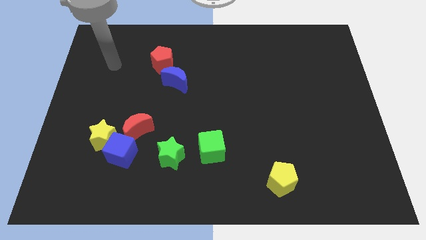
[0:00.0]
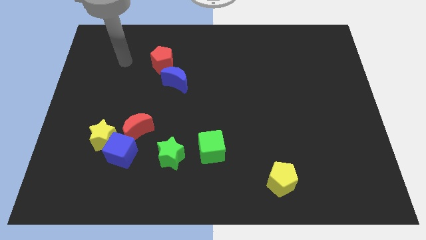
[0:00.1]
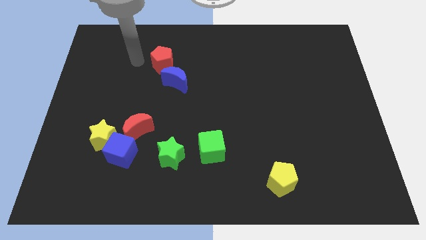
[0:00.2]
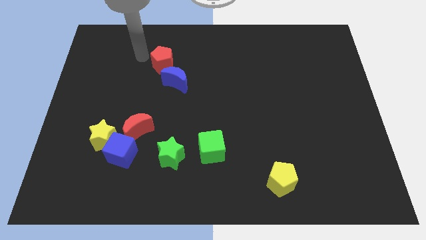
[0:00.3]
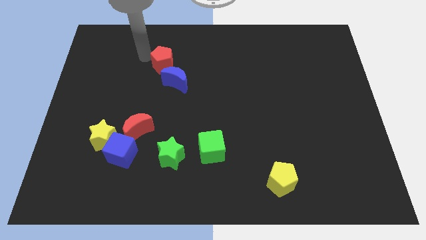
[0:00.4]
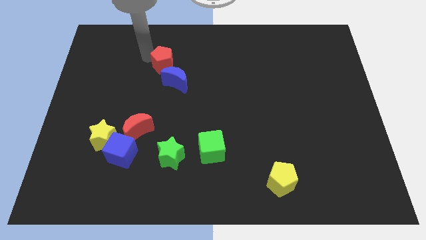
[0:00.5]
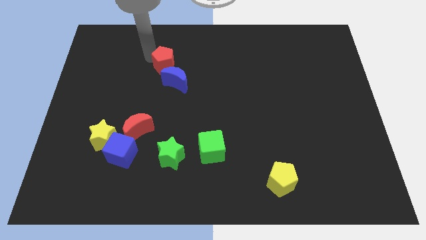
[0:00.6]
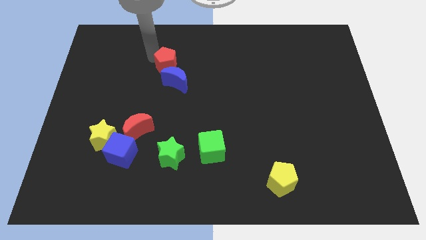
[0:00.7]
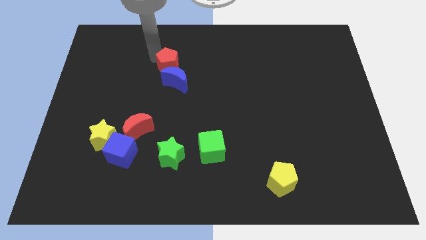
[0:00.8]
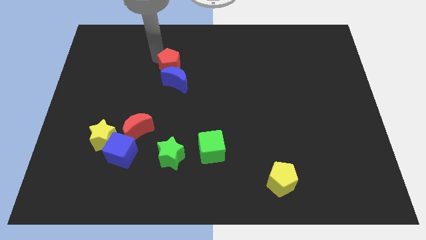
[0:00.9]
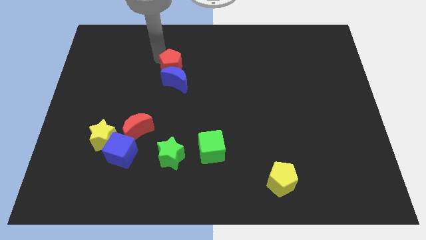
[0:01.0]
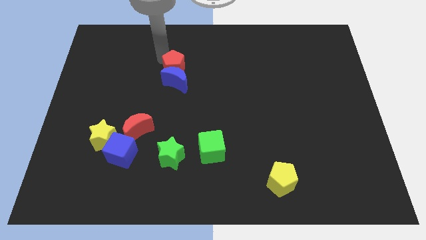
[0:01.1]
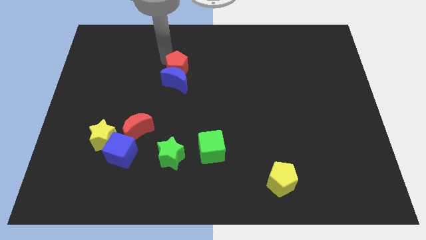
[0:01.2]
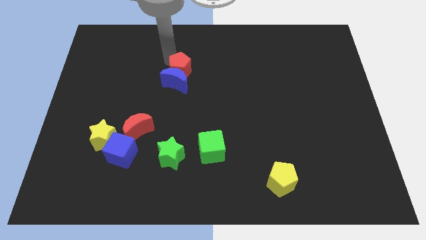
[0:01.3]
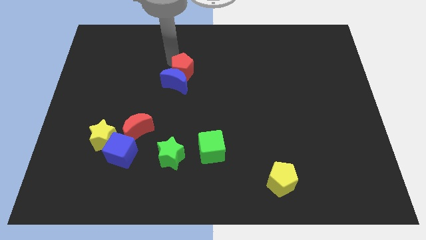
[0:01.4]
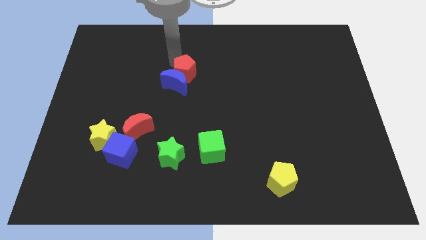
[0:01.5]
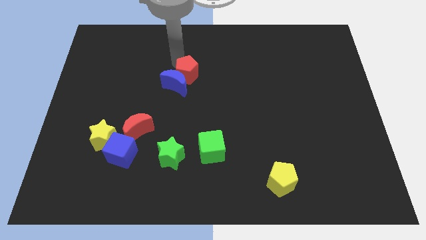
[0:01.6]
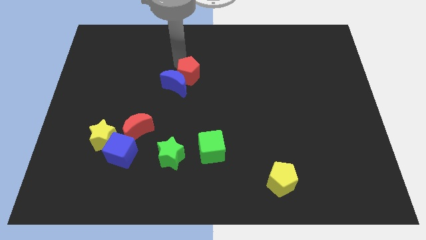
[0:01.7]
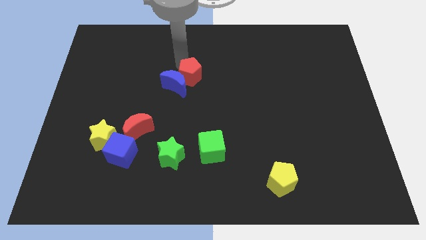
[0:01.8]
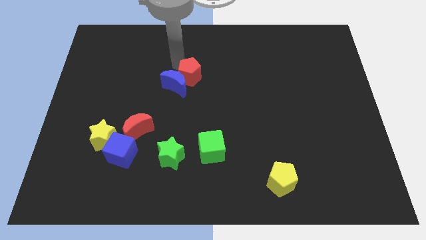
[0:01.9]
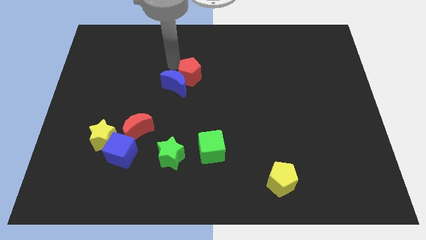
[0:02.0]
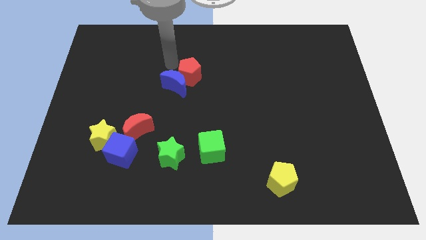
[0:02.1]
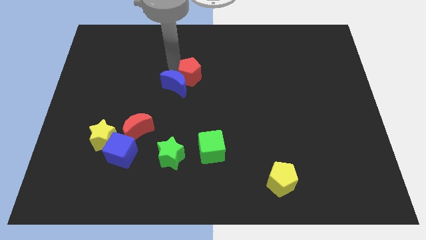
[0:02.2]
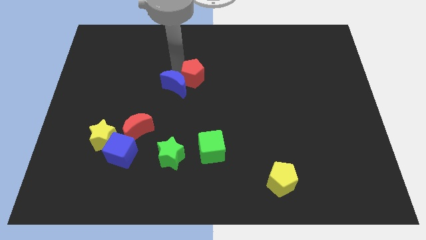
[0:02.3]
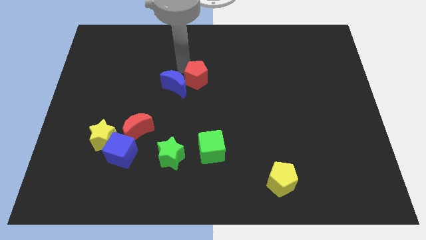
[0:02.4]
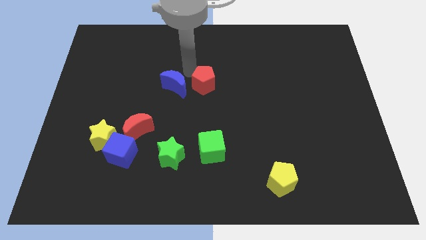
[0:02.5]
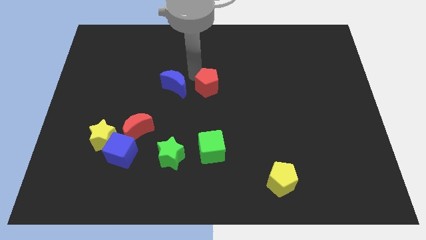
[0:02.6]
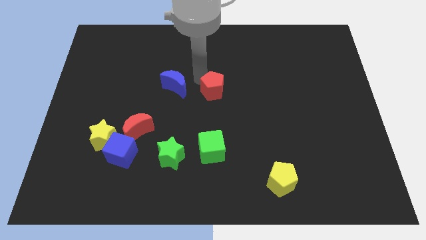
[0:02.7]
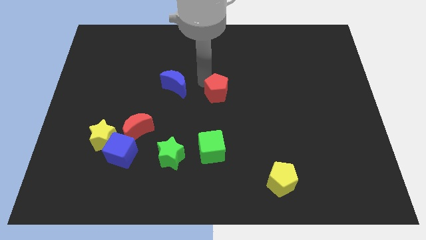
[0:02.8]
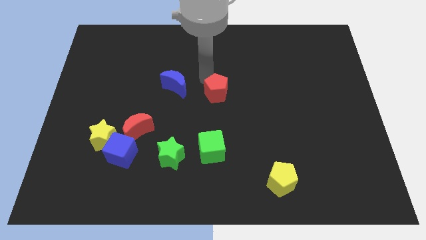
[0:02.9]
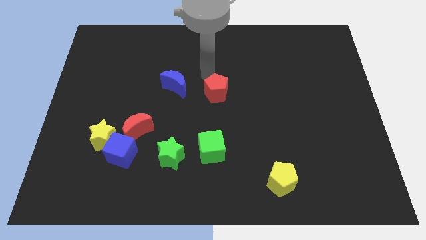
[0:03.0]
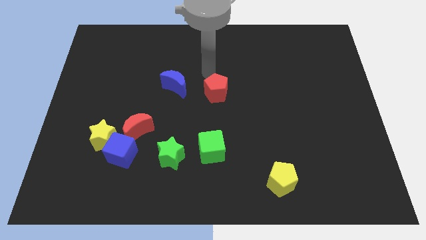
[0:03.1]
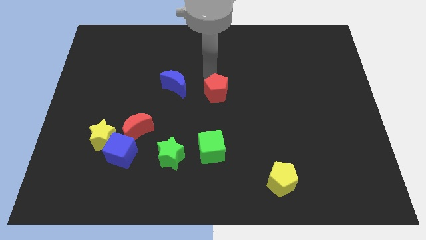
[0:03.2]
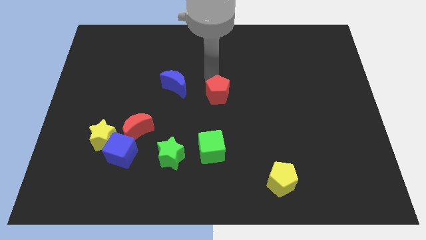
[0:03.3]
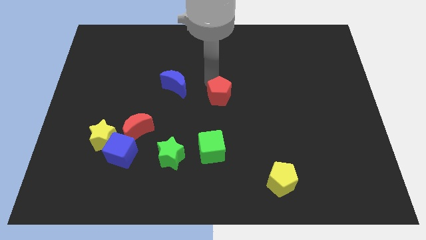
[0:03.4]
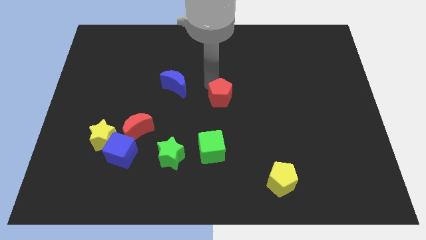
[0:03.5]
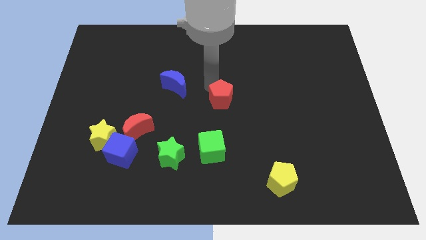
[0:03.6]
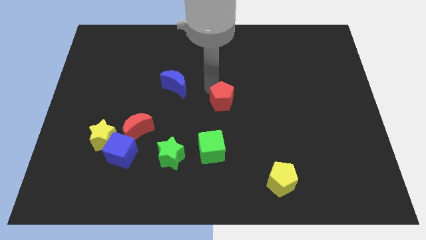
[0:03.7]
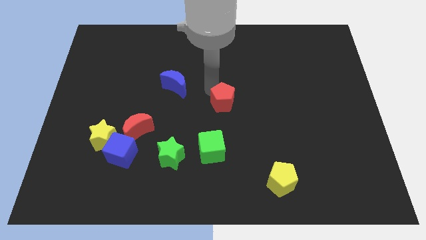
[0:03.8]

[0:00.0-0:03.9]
push the red pentagon downwards and right diagonally

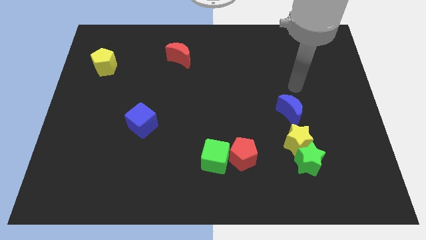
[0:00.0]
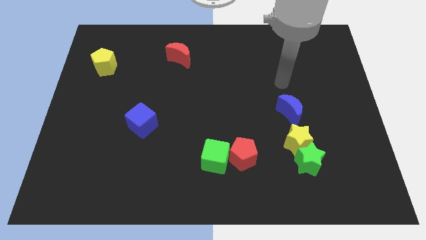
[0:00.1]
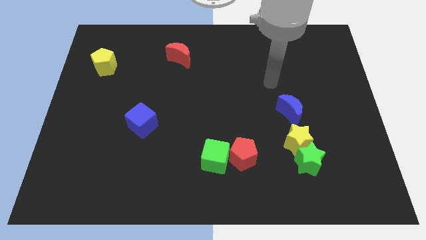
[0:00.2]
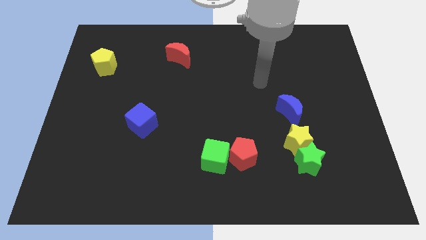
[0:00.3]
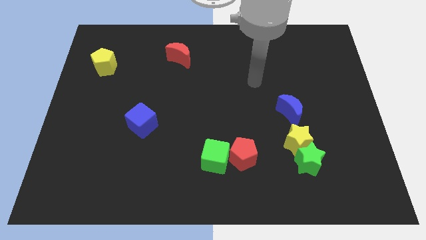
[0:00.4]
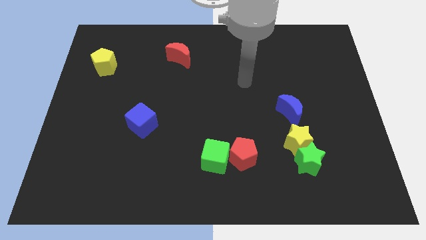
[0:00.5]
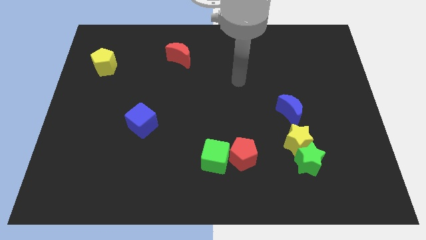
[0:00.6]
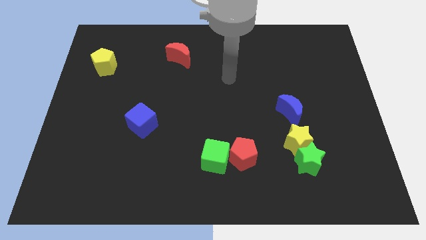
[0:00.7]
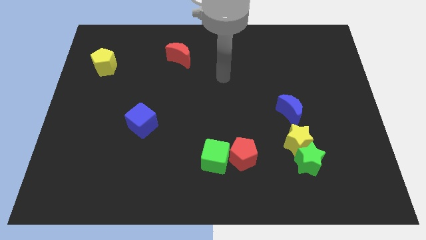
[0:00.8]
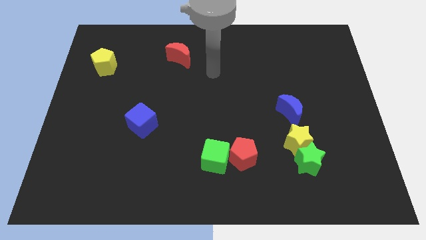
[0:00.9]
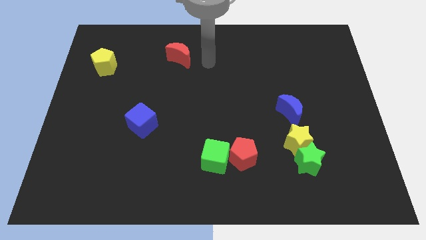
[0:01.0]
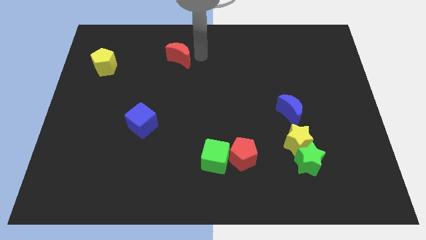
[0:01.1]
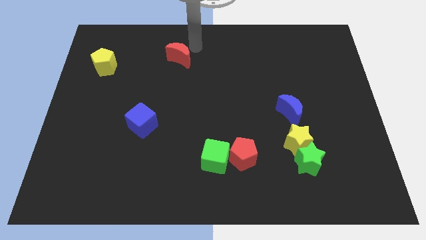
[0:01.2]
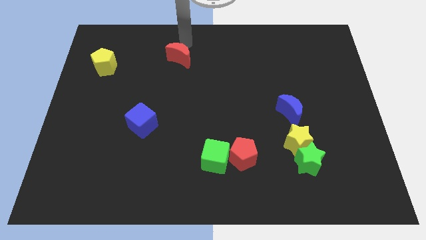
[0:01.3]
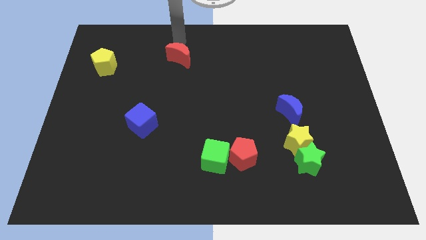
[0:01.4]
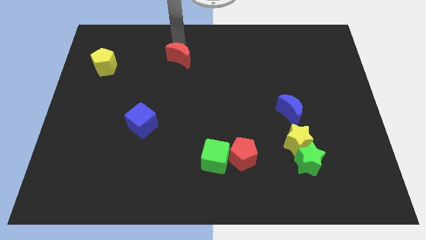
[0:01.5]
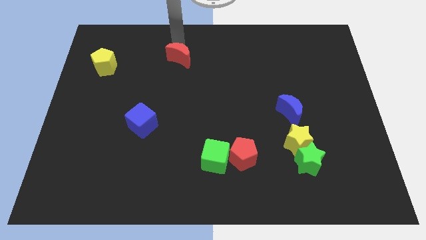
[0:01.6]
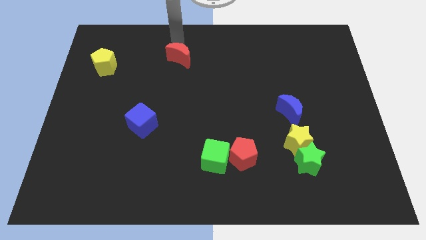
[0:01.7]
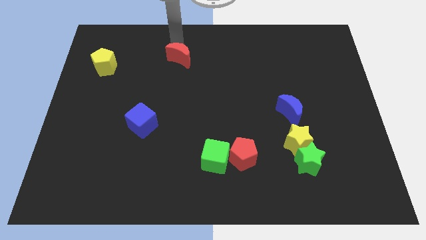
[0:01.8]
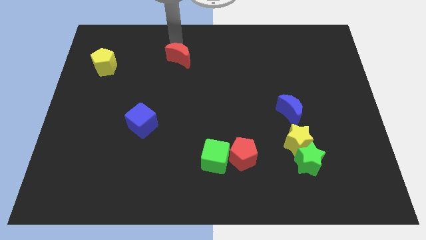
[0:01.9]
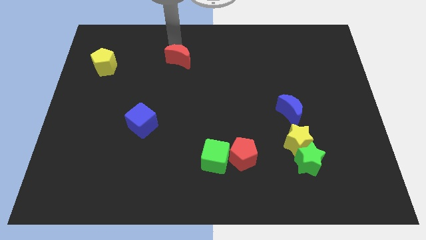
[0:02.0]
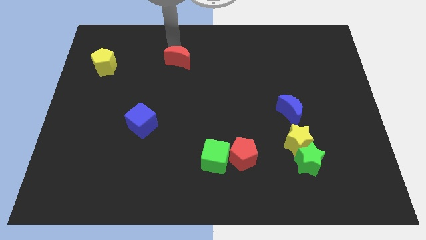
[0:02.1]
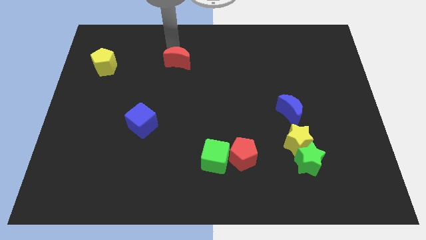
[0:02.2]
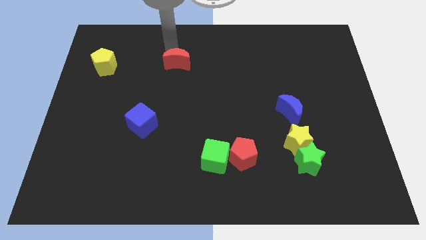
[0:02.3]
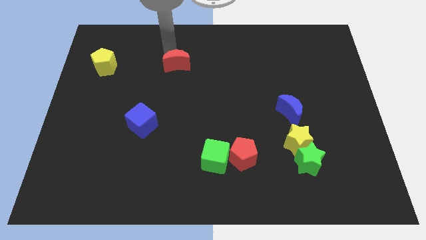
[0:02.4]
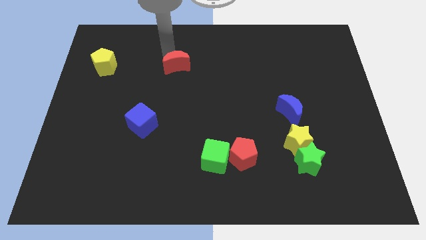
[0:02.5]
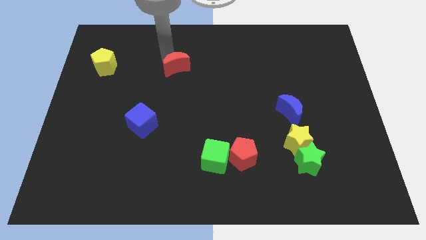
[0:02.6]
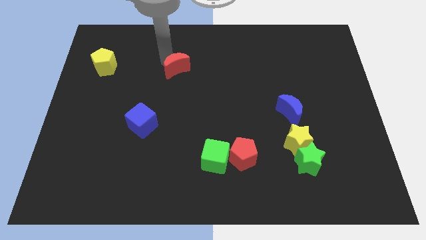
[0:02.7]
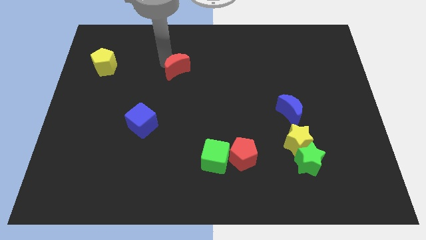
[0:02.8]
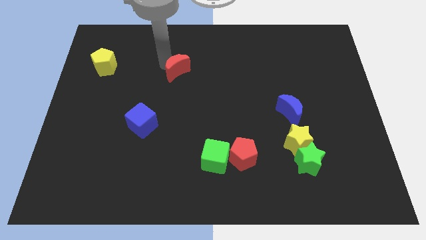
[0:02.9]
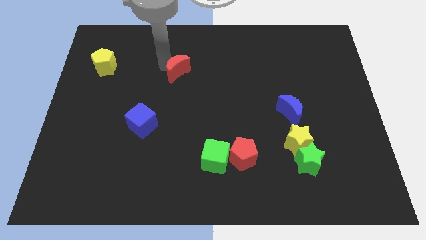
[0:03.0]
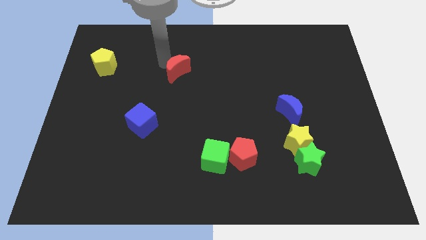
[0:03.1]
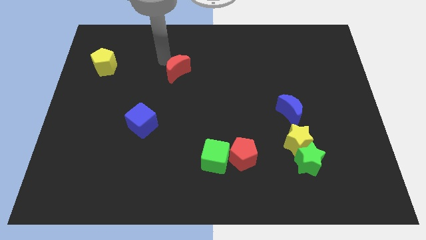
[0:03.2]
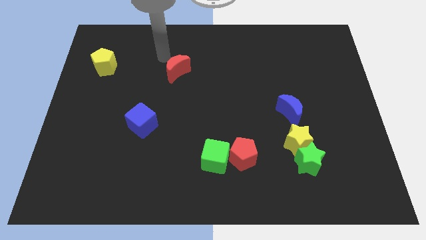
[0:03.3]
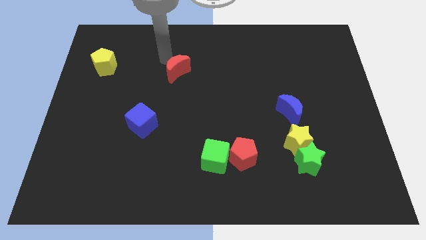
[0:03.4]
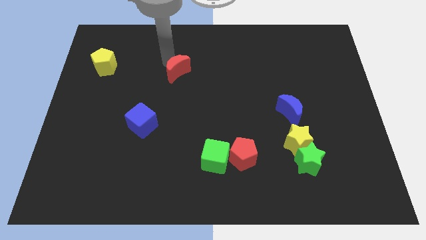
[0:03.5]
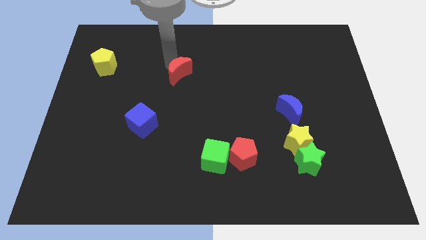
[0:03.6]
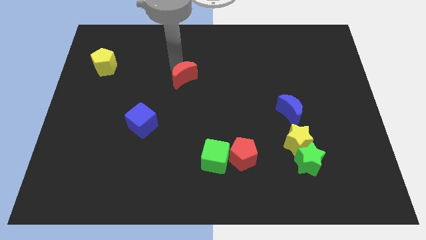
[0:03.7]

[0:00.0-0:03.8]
push the red moon downwards slightly
